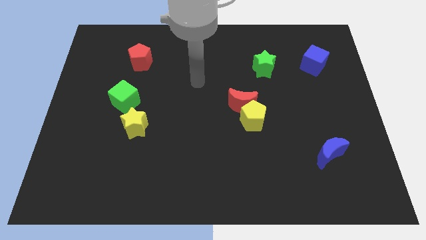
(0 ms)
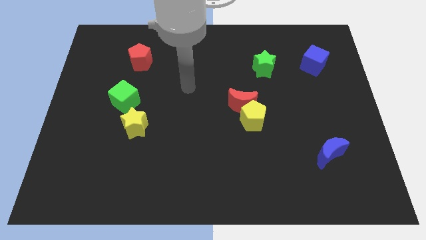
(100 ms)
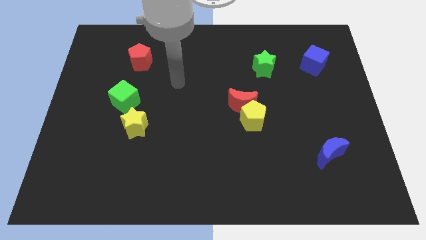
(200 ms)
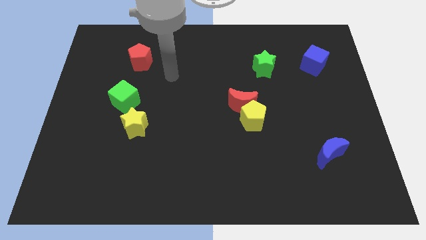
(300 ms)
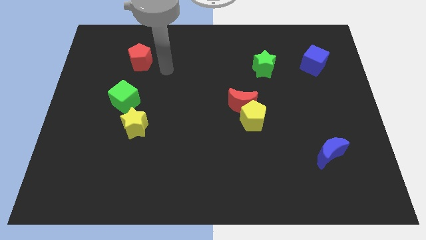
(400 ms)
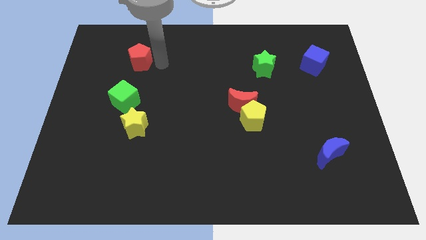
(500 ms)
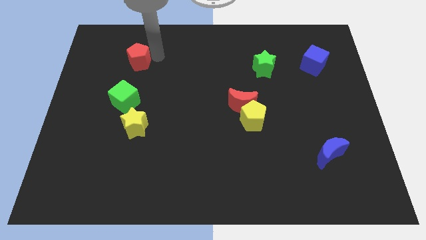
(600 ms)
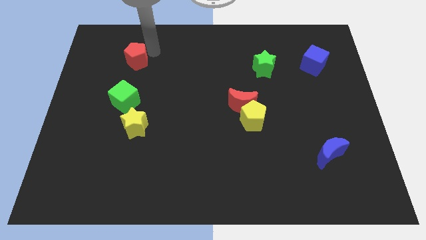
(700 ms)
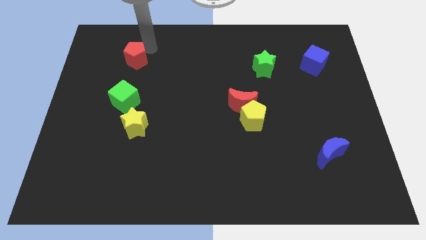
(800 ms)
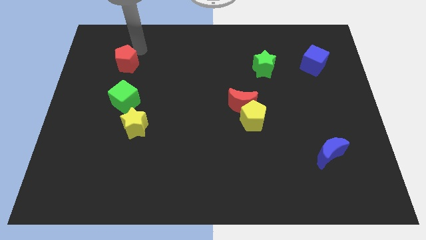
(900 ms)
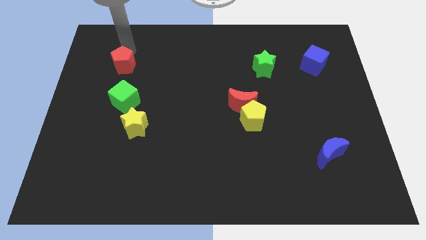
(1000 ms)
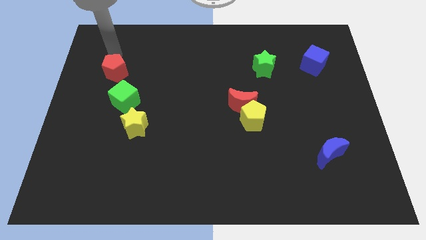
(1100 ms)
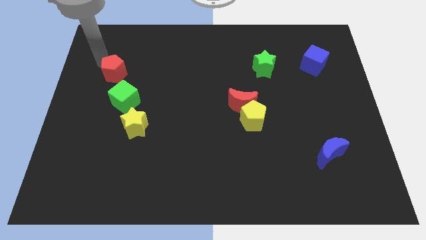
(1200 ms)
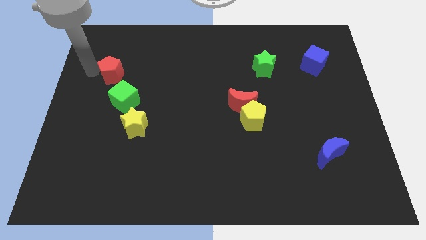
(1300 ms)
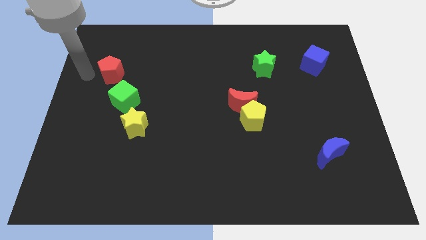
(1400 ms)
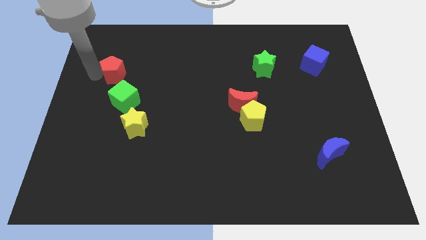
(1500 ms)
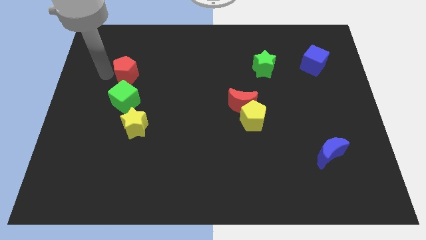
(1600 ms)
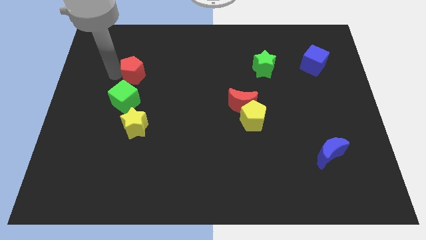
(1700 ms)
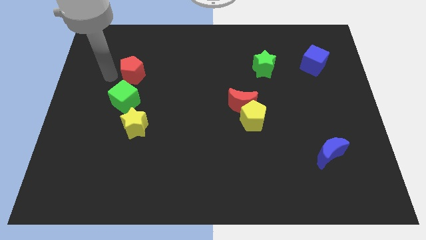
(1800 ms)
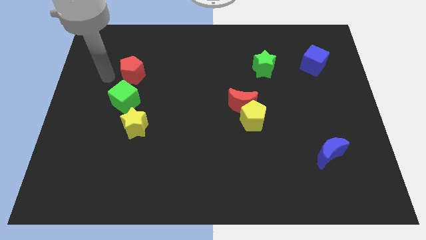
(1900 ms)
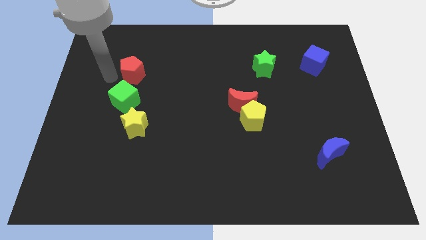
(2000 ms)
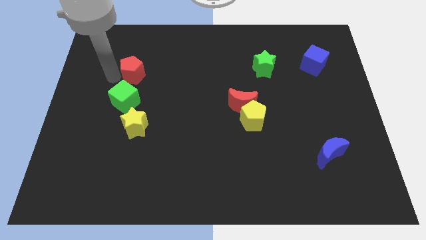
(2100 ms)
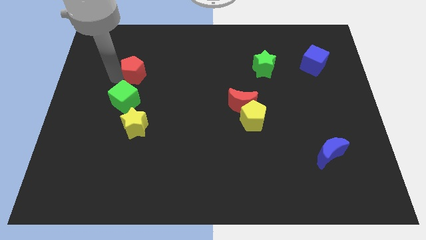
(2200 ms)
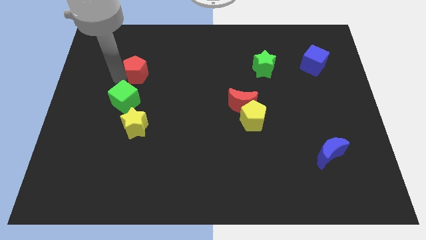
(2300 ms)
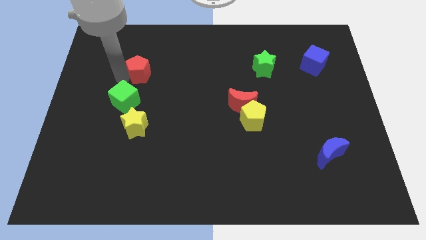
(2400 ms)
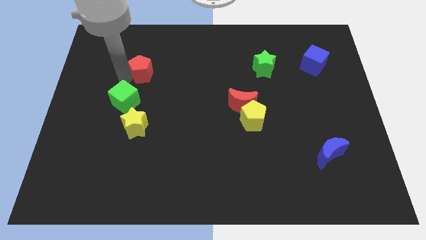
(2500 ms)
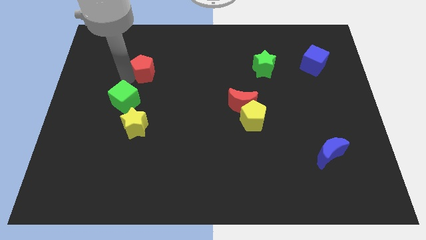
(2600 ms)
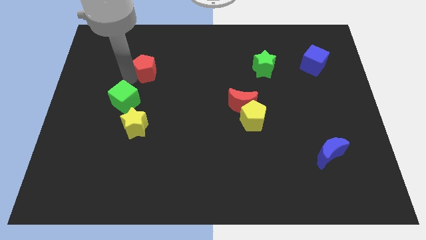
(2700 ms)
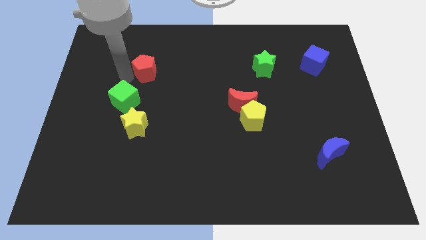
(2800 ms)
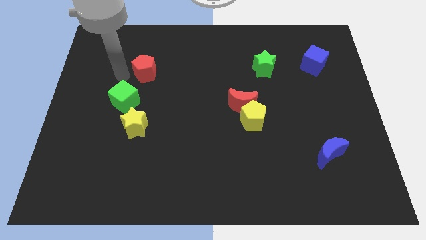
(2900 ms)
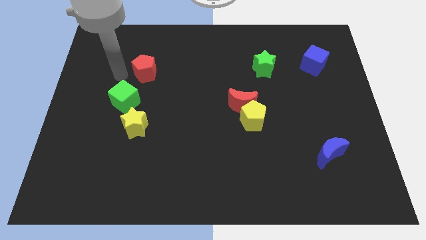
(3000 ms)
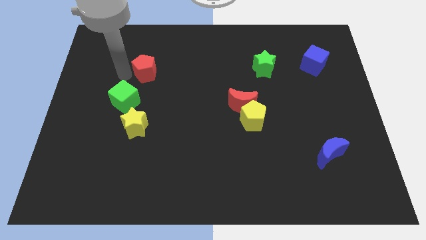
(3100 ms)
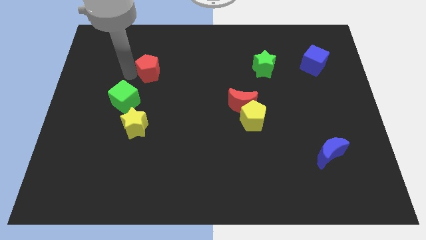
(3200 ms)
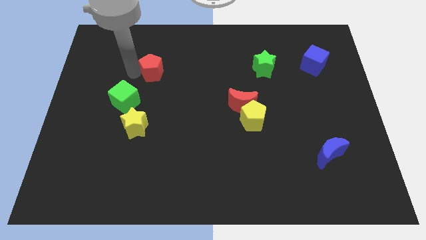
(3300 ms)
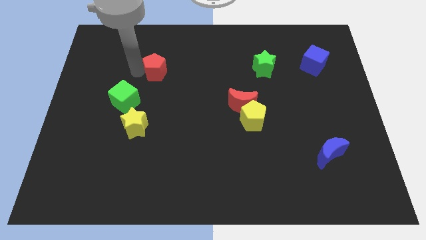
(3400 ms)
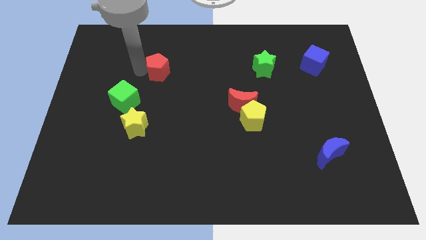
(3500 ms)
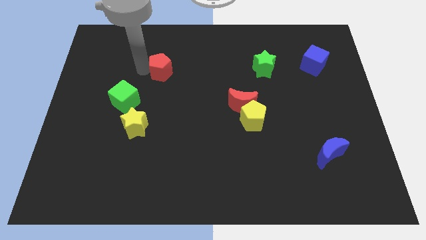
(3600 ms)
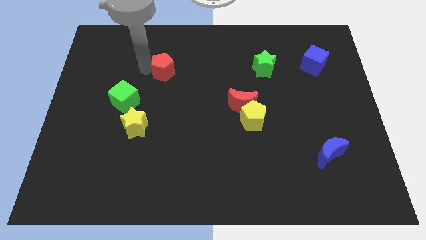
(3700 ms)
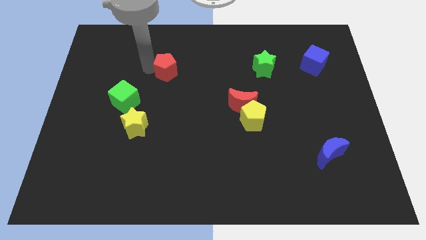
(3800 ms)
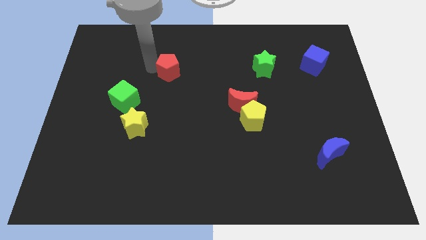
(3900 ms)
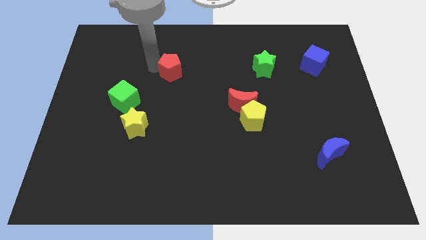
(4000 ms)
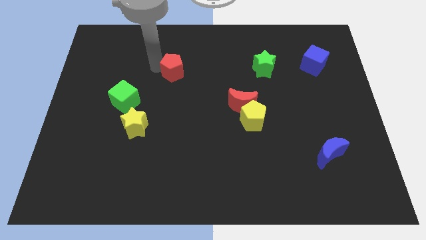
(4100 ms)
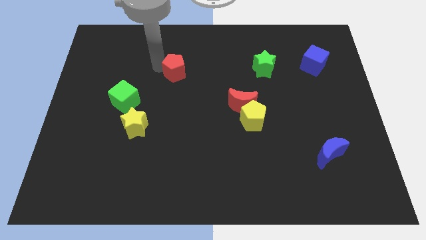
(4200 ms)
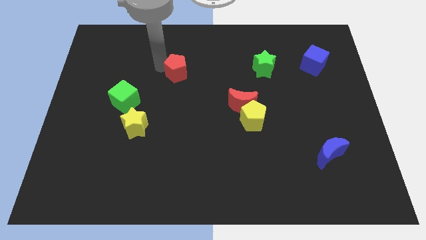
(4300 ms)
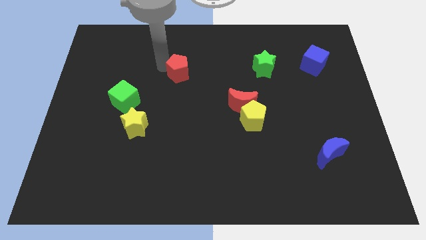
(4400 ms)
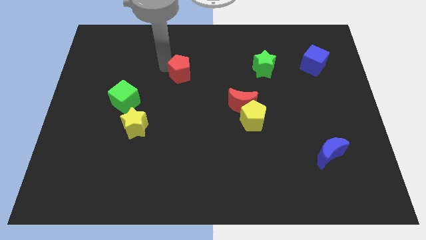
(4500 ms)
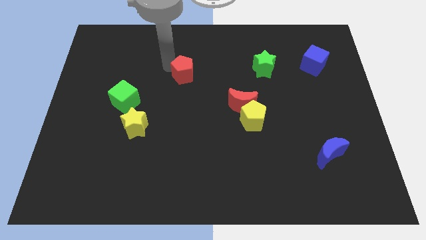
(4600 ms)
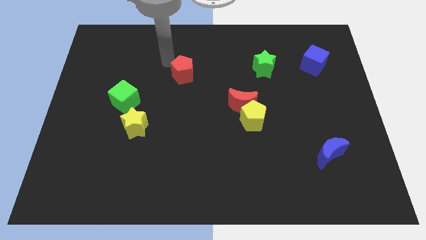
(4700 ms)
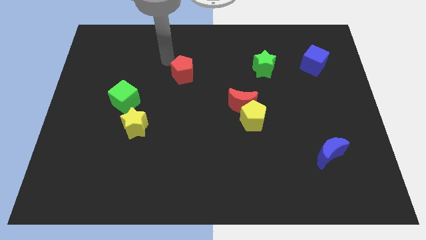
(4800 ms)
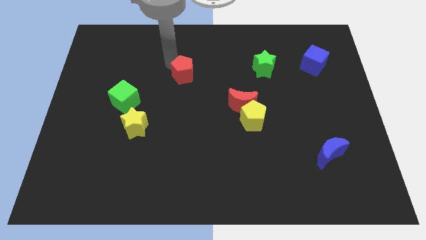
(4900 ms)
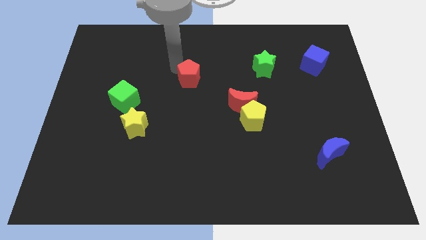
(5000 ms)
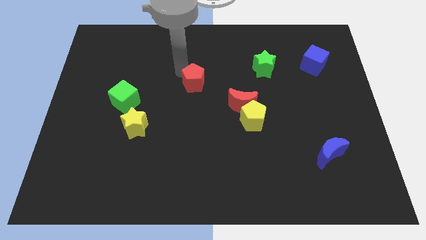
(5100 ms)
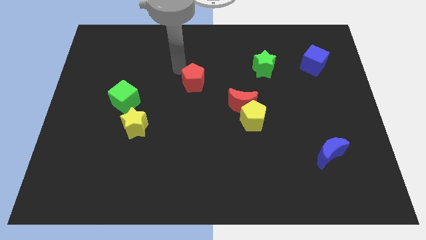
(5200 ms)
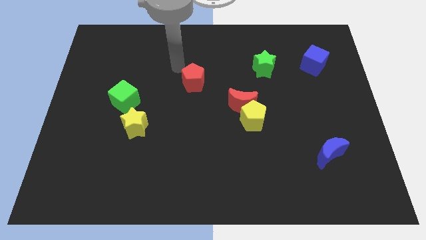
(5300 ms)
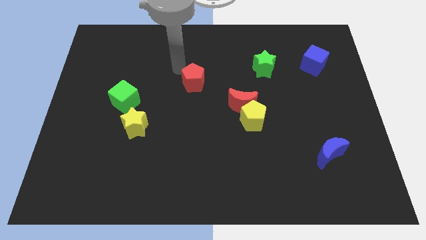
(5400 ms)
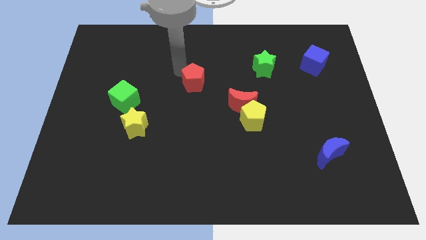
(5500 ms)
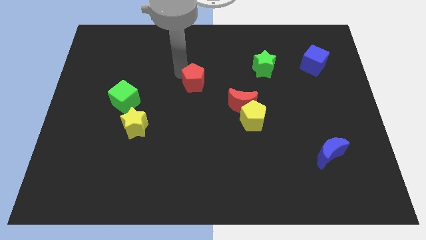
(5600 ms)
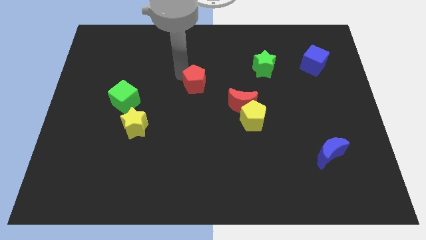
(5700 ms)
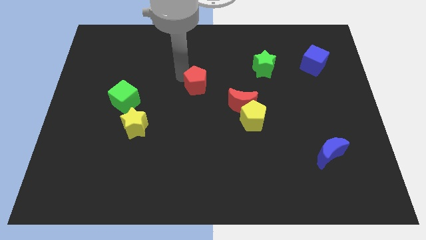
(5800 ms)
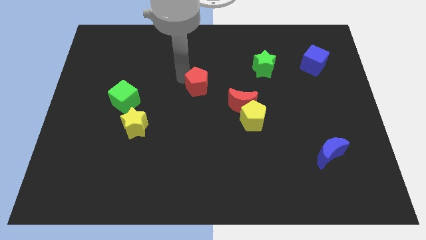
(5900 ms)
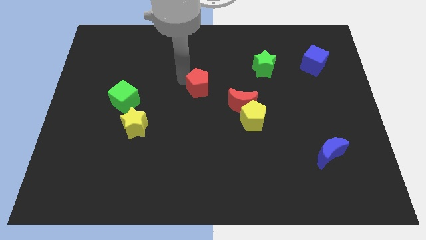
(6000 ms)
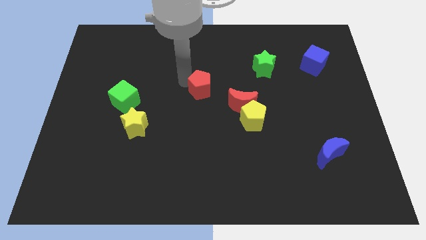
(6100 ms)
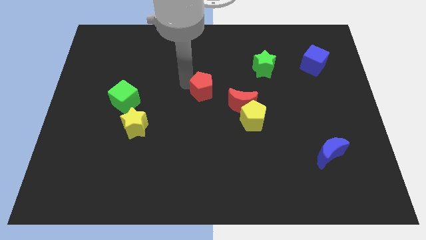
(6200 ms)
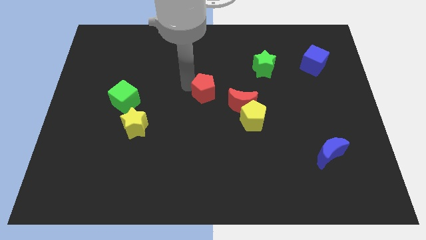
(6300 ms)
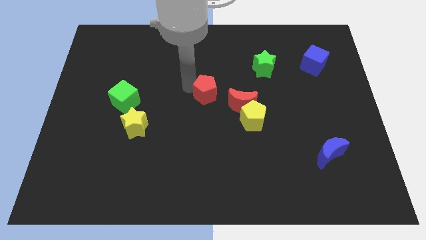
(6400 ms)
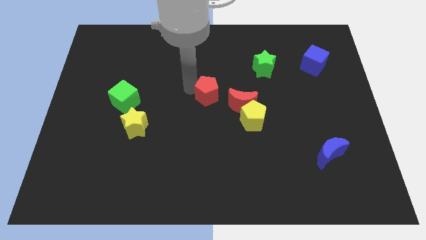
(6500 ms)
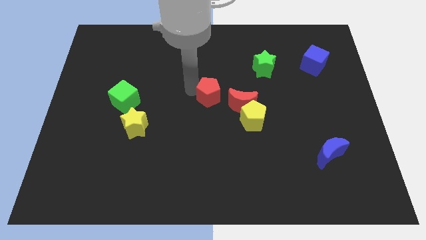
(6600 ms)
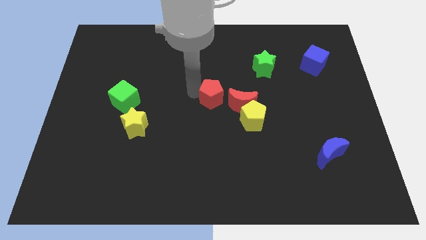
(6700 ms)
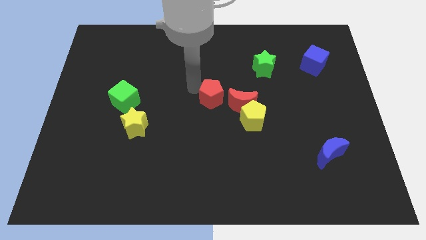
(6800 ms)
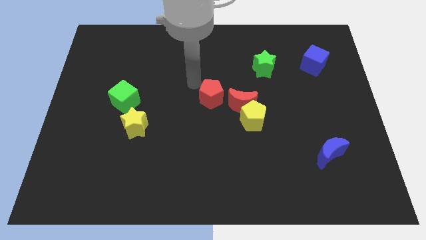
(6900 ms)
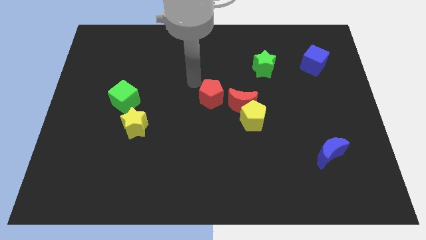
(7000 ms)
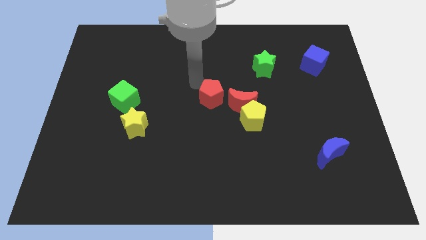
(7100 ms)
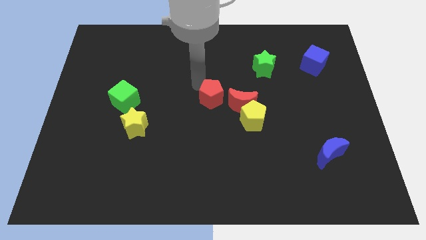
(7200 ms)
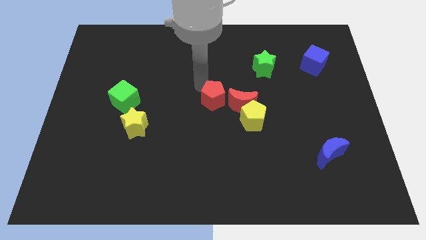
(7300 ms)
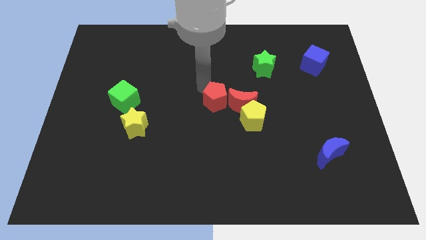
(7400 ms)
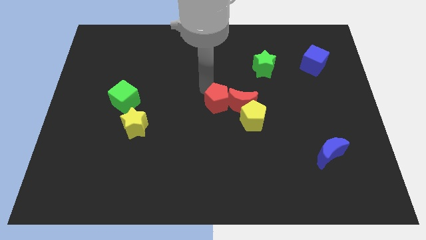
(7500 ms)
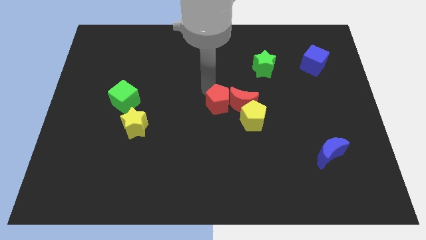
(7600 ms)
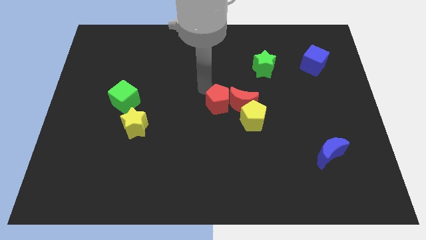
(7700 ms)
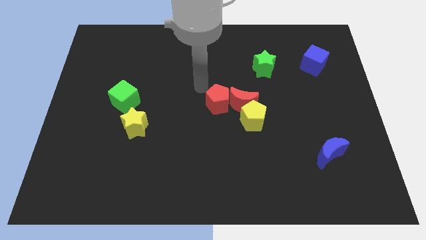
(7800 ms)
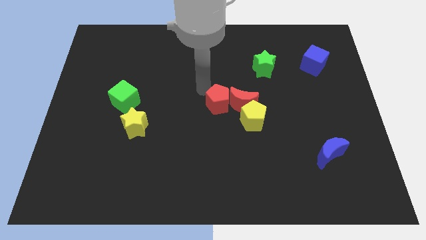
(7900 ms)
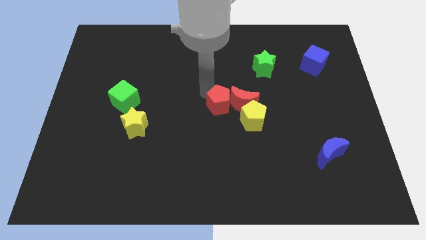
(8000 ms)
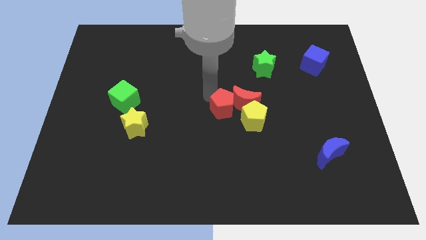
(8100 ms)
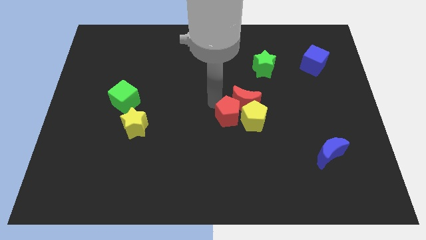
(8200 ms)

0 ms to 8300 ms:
put the red pentagon close to the yellow pentagon
